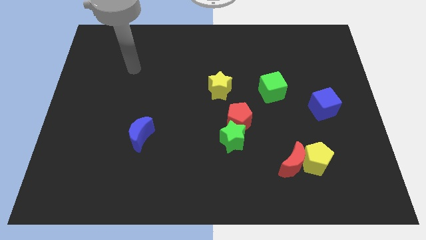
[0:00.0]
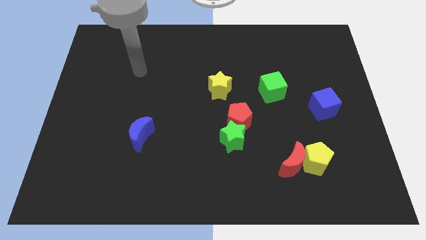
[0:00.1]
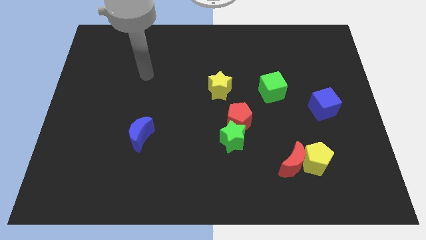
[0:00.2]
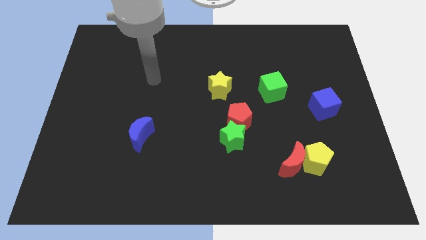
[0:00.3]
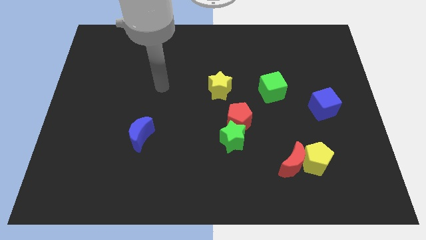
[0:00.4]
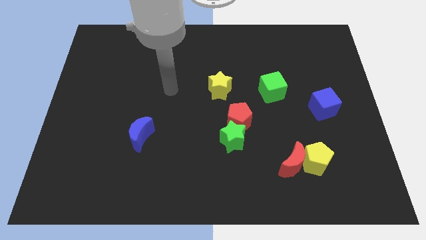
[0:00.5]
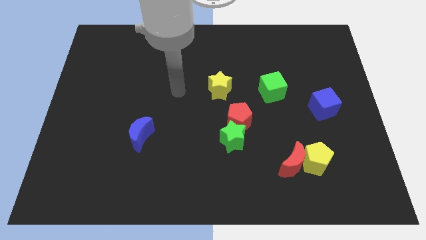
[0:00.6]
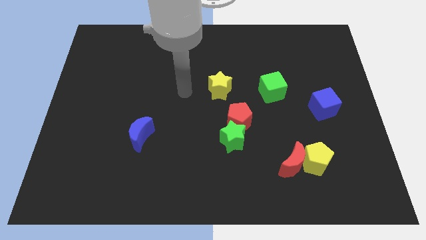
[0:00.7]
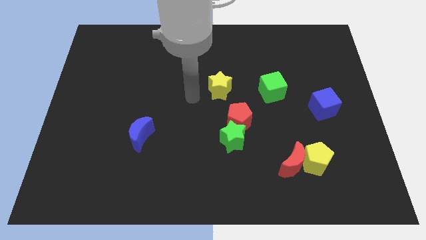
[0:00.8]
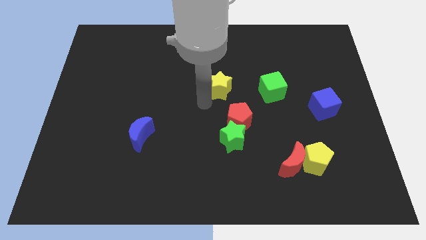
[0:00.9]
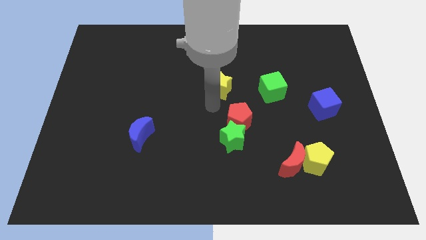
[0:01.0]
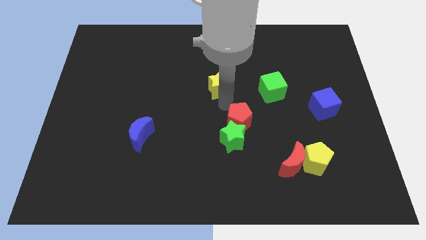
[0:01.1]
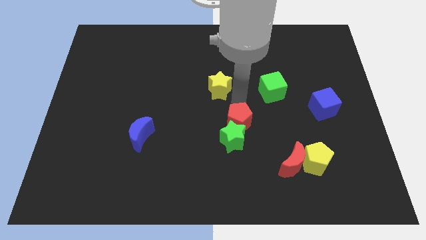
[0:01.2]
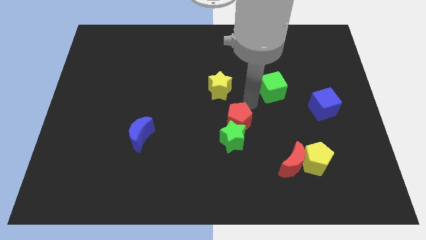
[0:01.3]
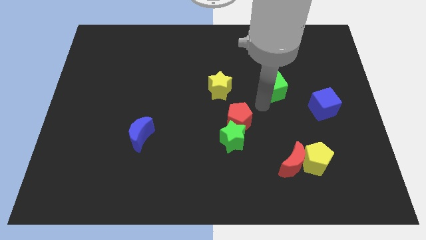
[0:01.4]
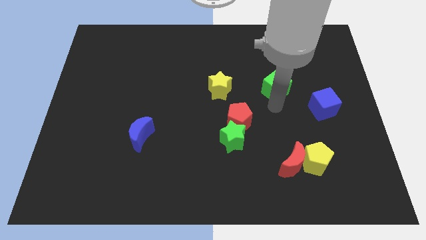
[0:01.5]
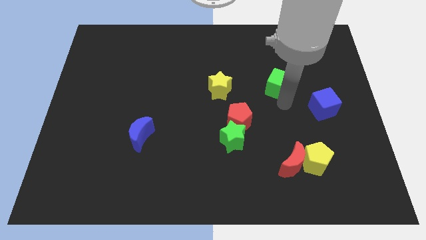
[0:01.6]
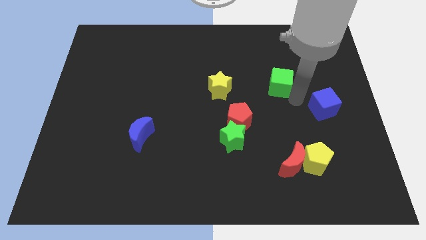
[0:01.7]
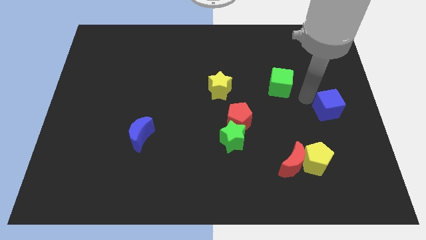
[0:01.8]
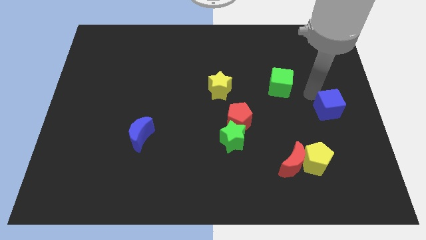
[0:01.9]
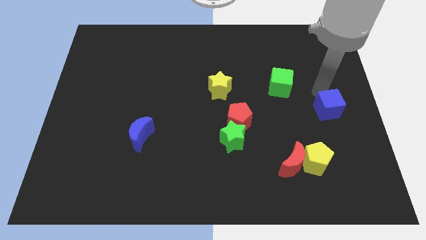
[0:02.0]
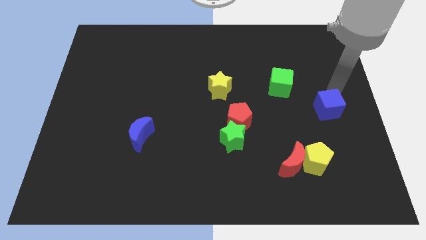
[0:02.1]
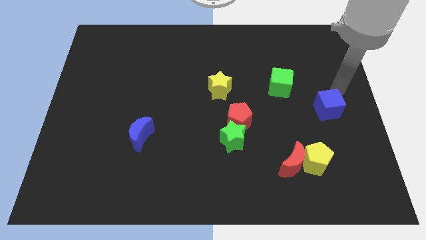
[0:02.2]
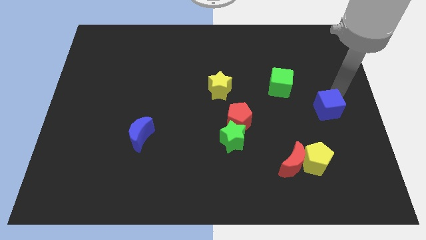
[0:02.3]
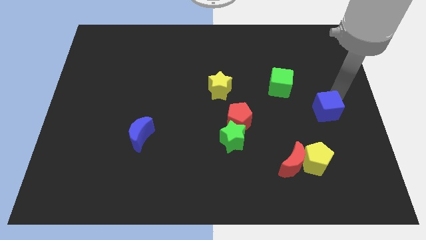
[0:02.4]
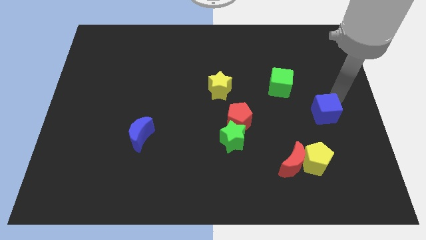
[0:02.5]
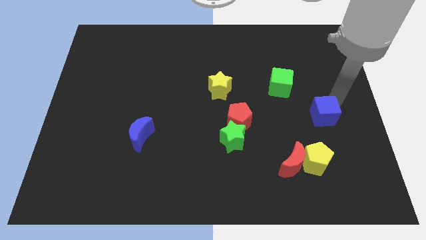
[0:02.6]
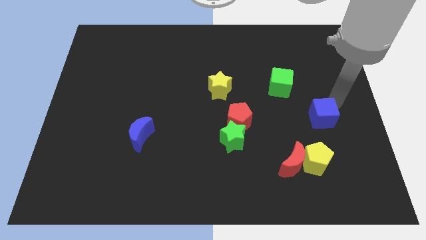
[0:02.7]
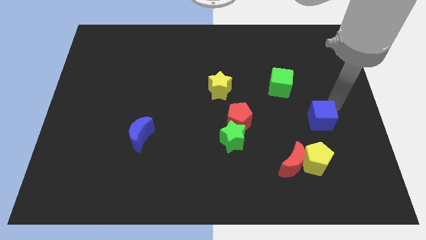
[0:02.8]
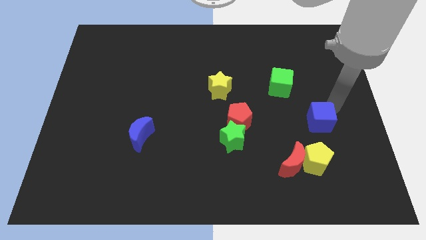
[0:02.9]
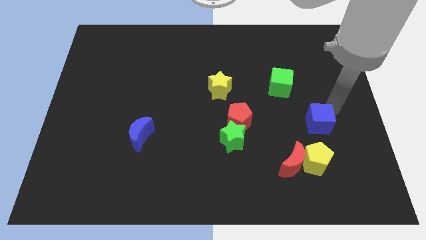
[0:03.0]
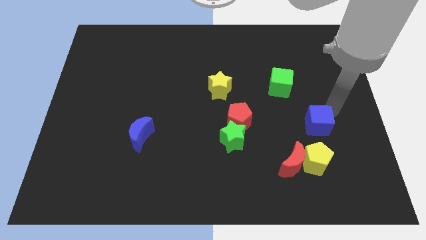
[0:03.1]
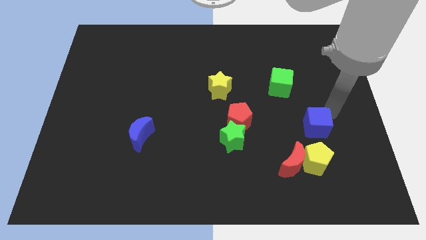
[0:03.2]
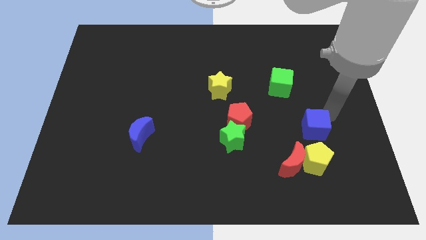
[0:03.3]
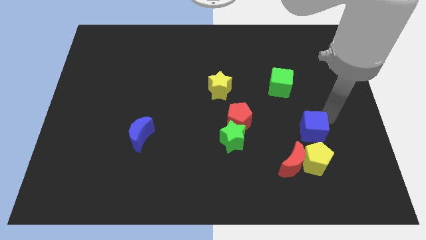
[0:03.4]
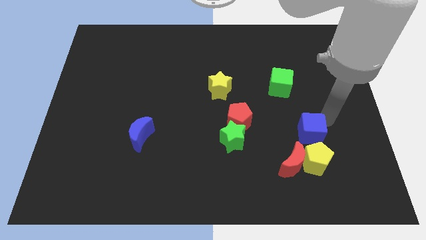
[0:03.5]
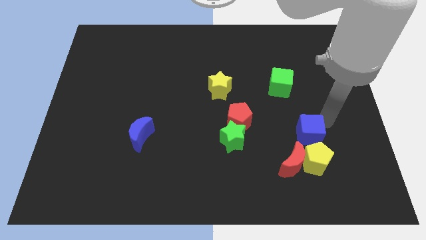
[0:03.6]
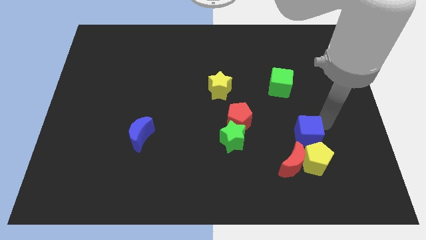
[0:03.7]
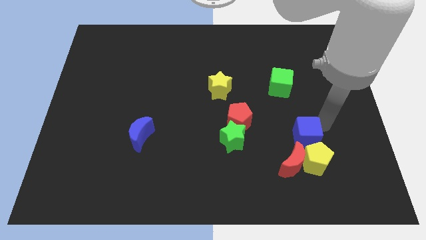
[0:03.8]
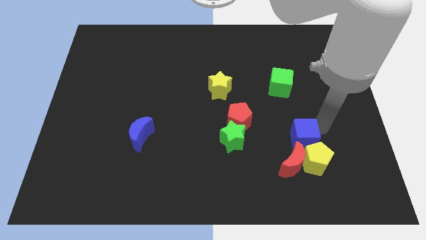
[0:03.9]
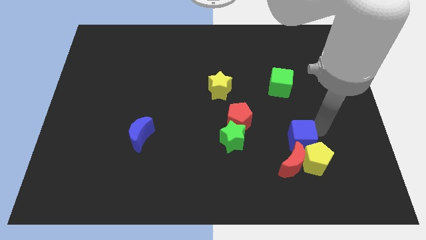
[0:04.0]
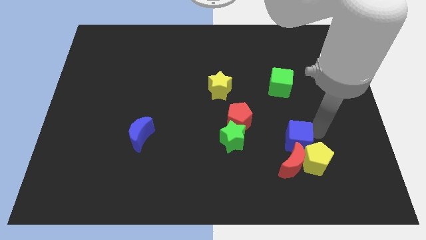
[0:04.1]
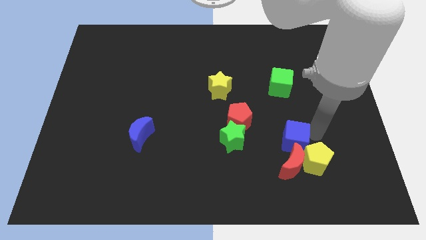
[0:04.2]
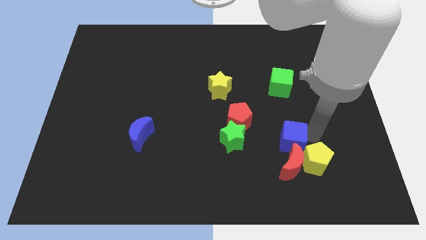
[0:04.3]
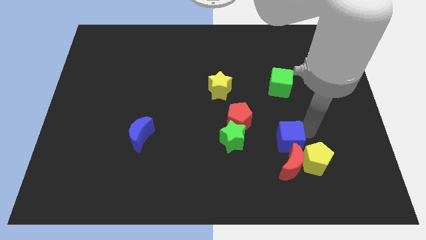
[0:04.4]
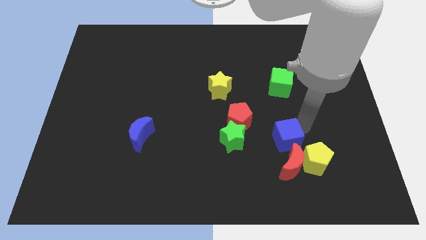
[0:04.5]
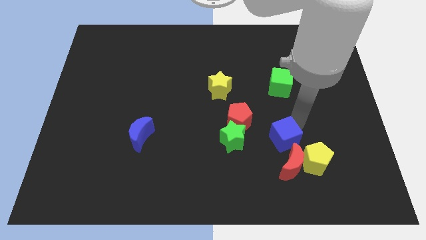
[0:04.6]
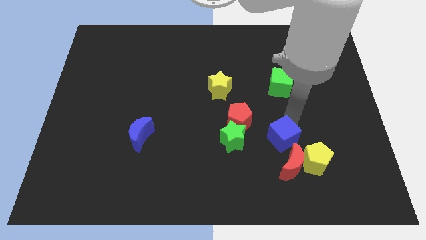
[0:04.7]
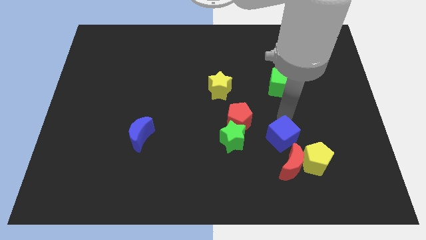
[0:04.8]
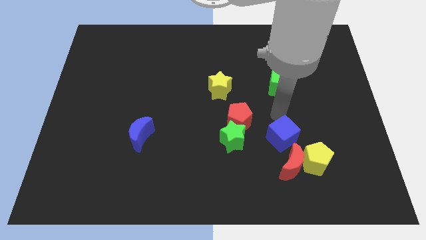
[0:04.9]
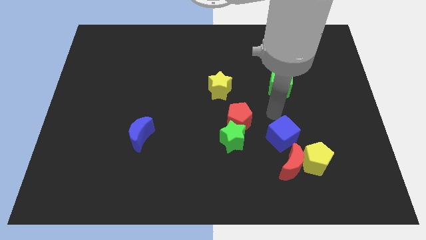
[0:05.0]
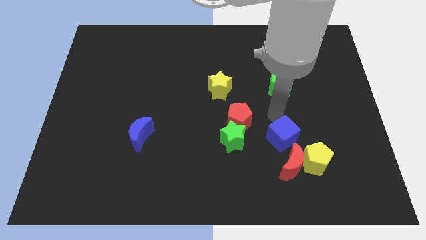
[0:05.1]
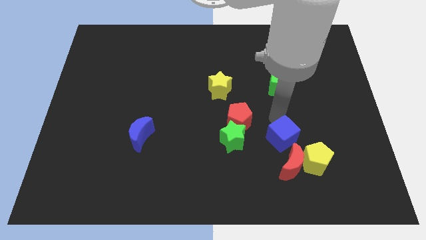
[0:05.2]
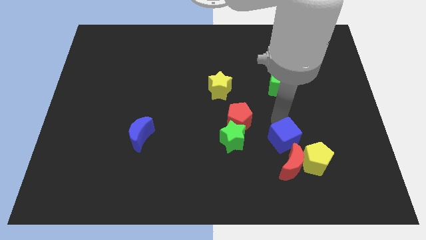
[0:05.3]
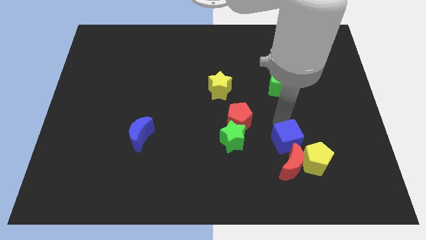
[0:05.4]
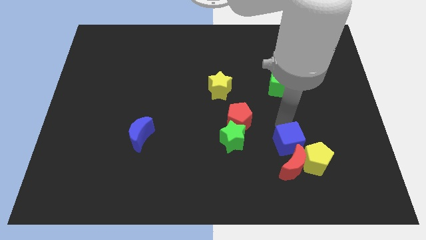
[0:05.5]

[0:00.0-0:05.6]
push the blue cube towards the red moon

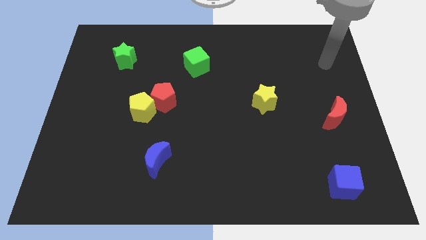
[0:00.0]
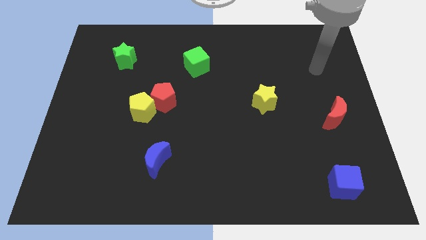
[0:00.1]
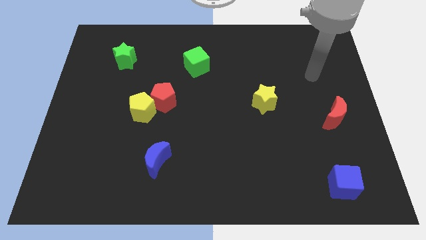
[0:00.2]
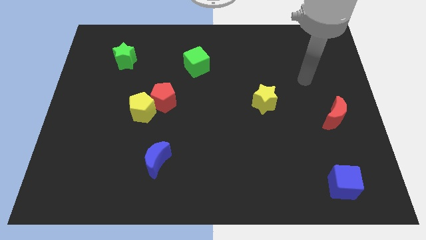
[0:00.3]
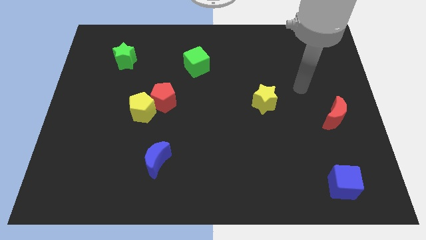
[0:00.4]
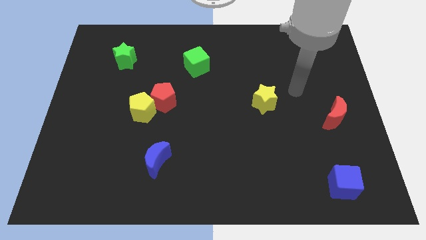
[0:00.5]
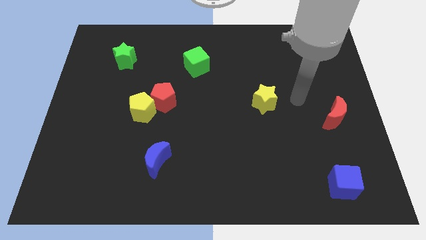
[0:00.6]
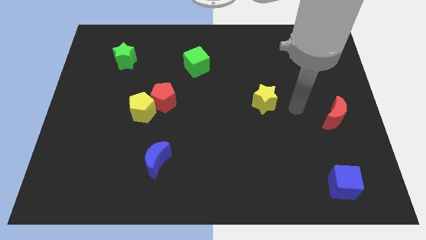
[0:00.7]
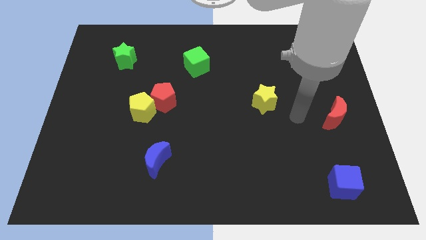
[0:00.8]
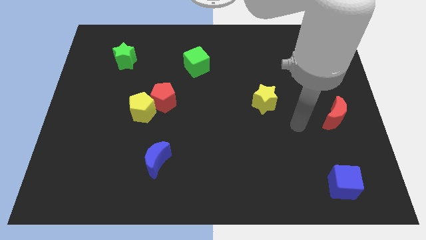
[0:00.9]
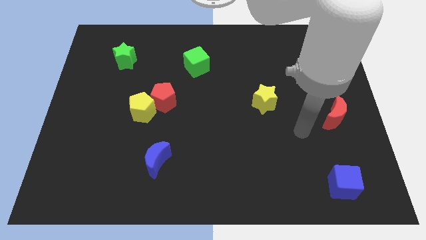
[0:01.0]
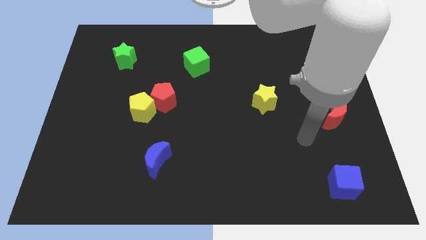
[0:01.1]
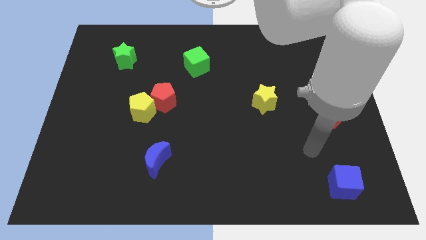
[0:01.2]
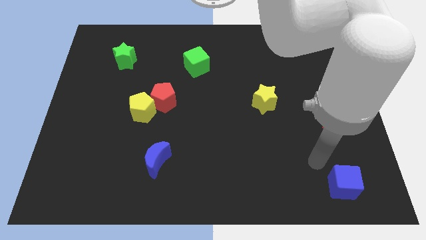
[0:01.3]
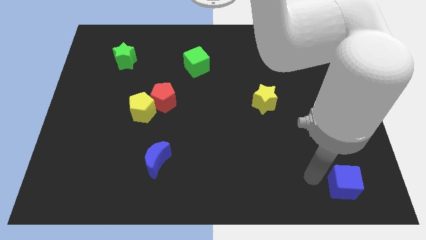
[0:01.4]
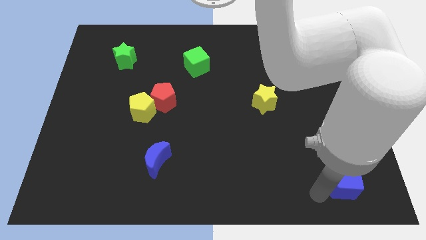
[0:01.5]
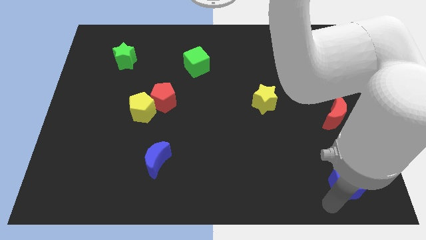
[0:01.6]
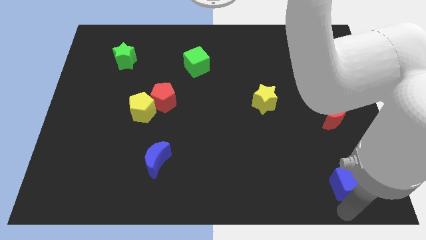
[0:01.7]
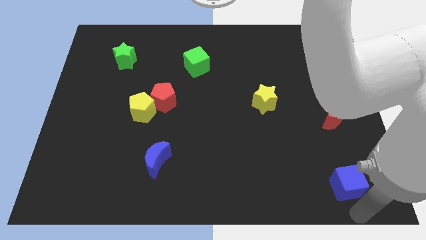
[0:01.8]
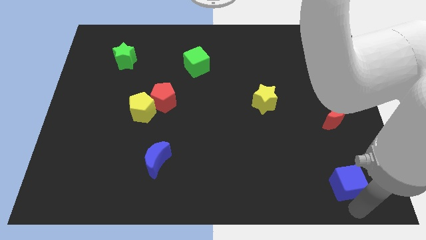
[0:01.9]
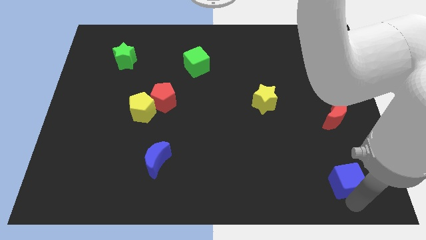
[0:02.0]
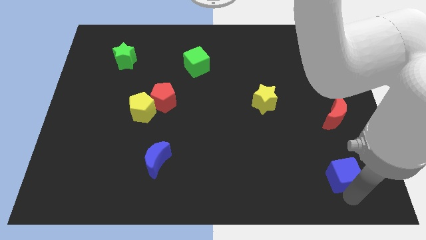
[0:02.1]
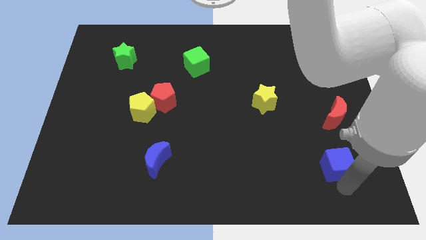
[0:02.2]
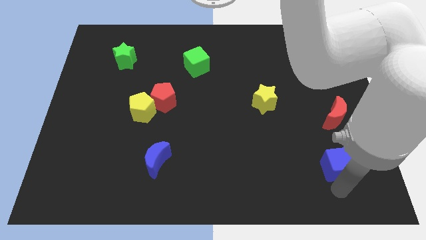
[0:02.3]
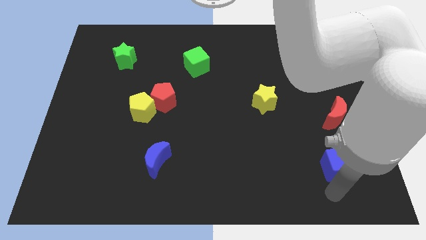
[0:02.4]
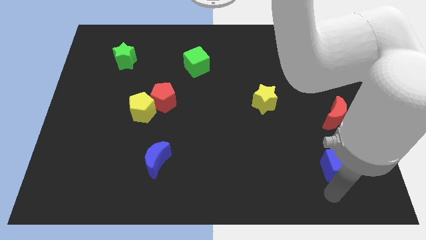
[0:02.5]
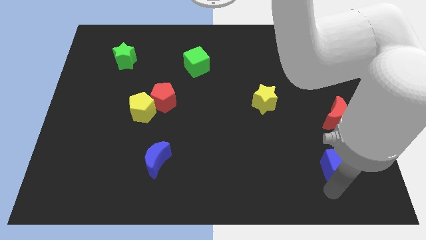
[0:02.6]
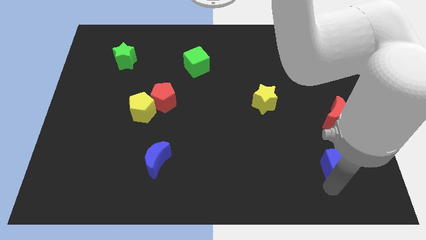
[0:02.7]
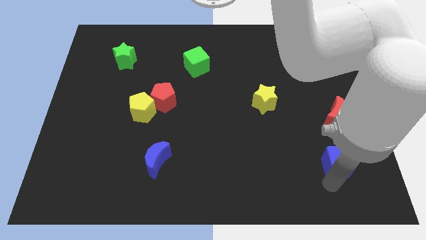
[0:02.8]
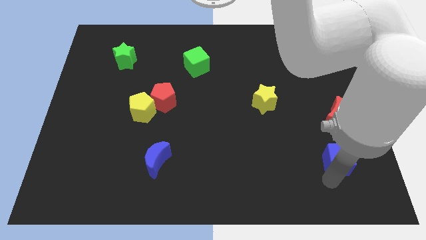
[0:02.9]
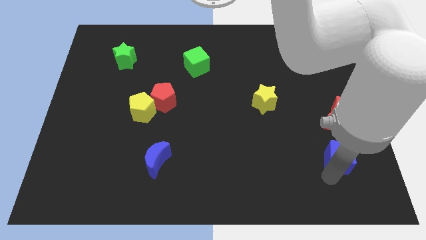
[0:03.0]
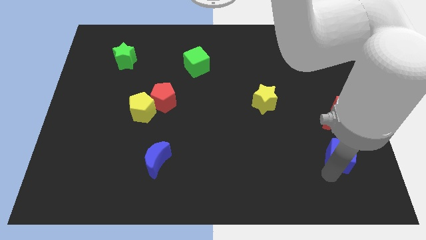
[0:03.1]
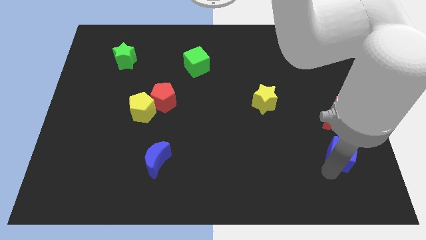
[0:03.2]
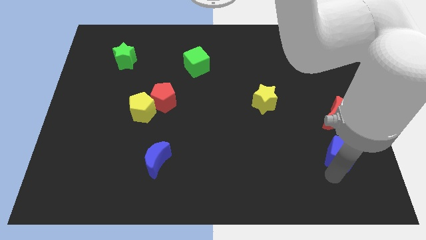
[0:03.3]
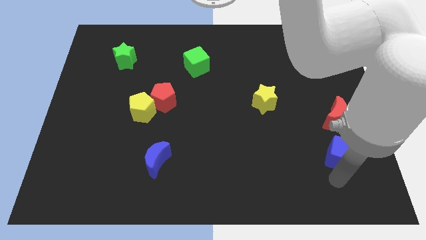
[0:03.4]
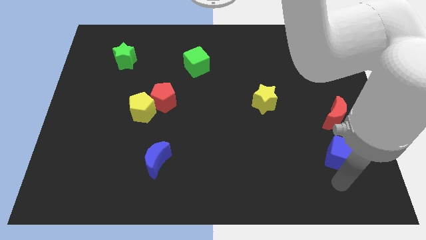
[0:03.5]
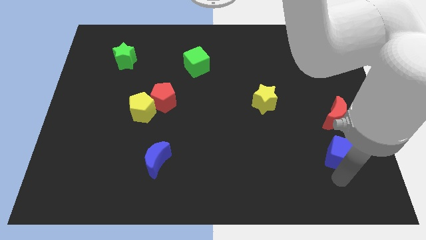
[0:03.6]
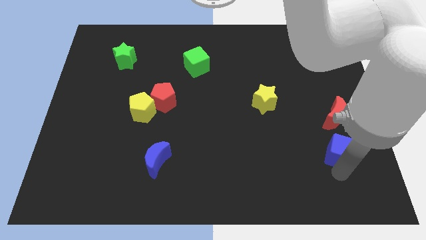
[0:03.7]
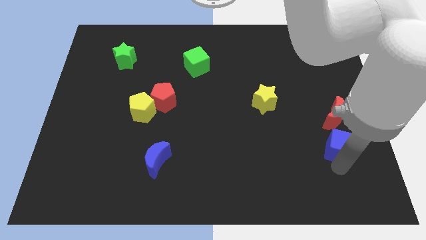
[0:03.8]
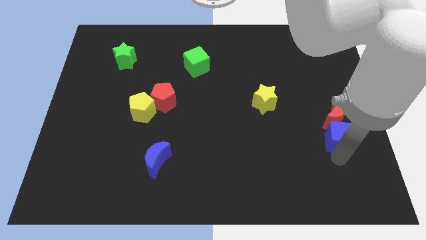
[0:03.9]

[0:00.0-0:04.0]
slide the blue cube close to the red moon
